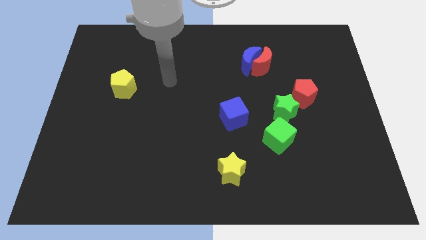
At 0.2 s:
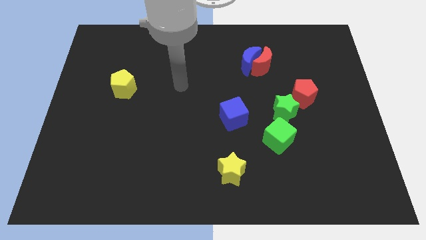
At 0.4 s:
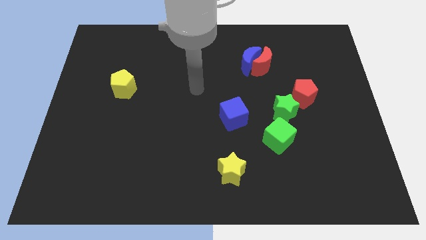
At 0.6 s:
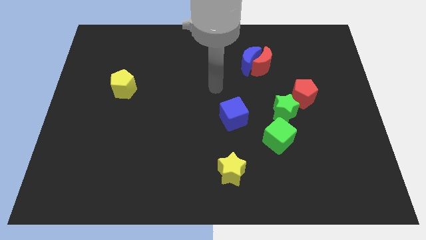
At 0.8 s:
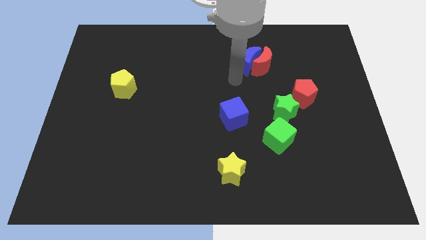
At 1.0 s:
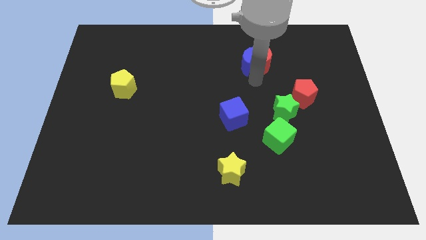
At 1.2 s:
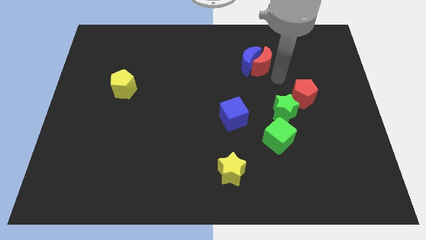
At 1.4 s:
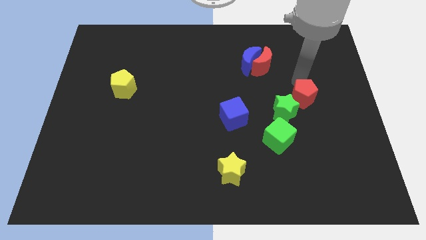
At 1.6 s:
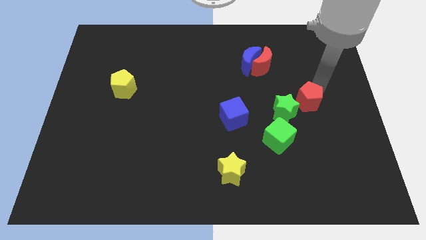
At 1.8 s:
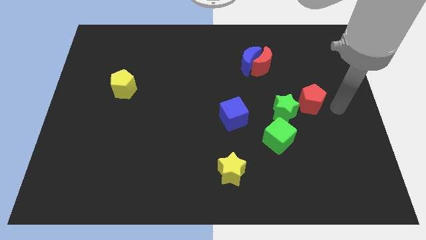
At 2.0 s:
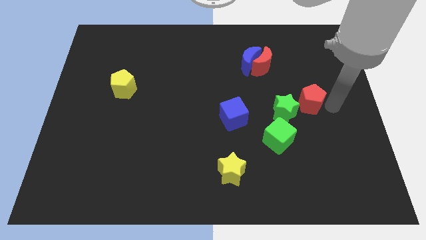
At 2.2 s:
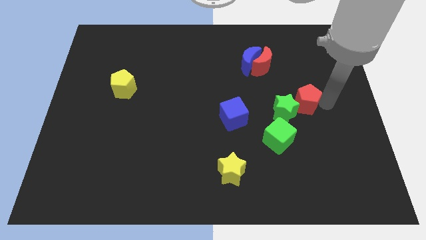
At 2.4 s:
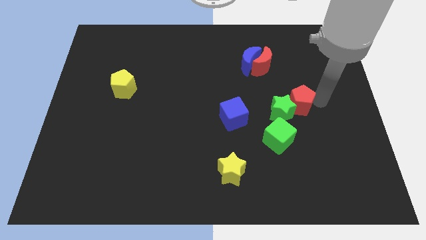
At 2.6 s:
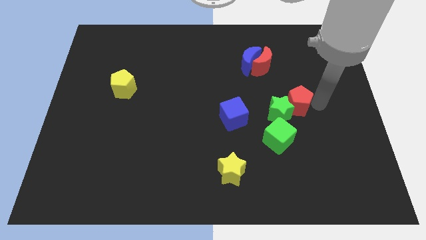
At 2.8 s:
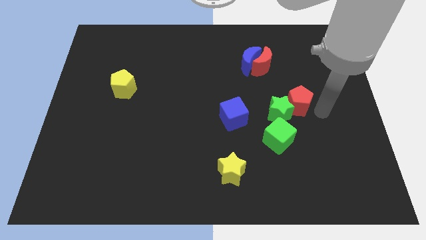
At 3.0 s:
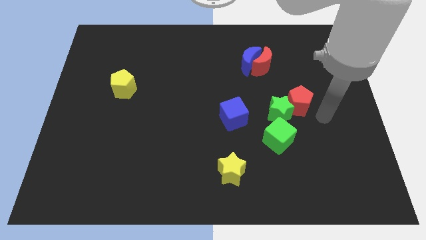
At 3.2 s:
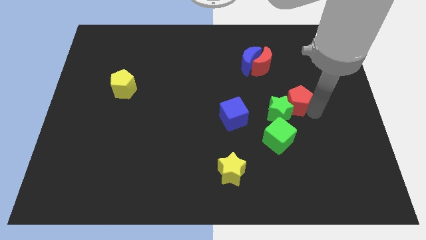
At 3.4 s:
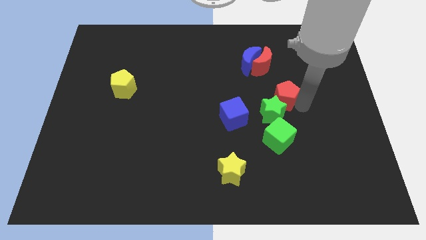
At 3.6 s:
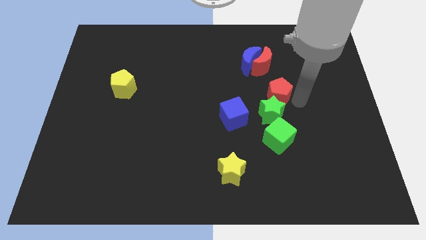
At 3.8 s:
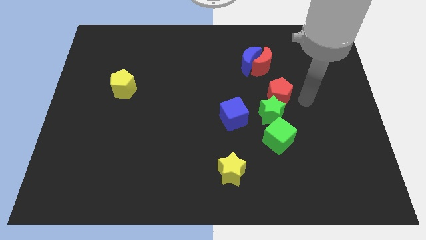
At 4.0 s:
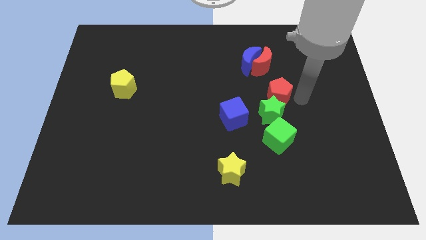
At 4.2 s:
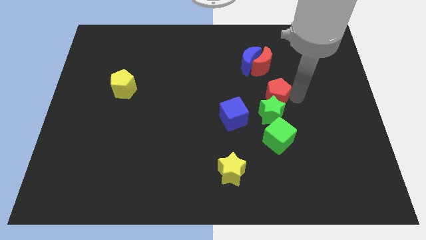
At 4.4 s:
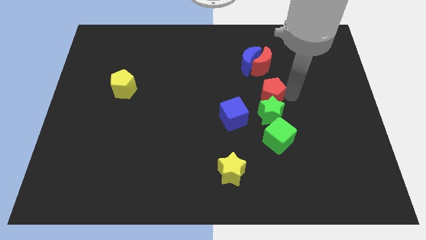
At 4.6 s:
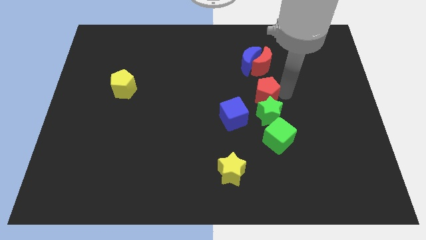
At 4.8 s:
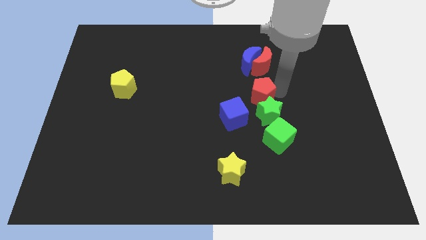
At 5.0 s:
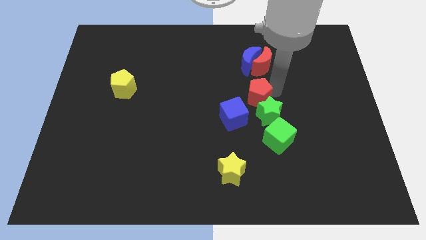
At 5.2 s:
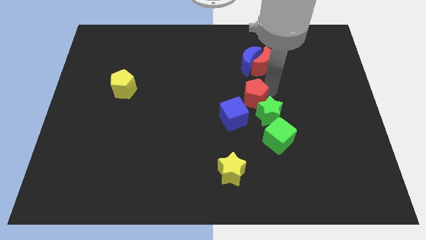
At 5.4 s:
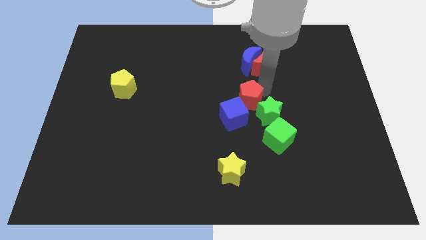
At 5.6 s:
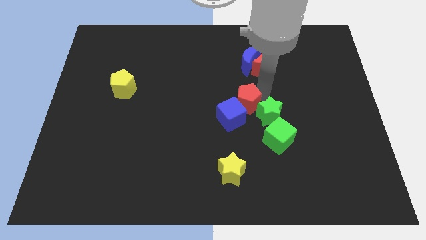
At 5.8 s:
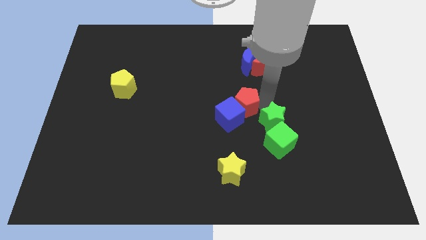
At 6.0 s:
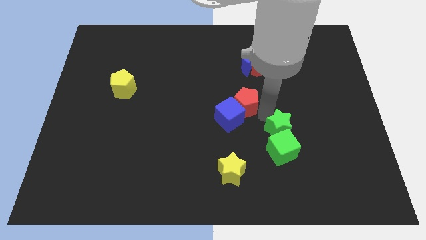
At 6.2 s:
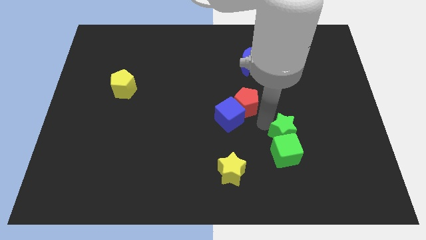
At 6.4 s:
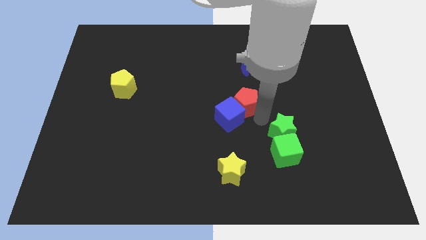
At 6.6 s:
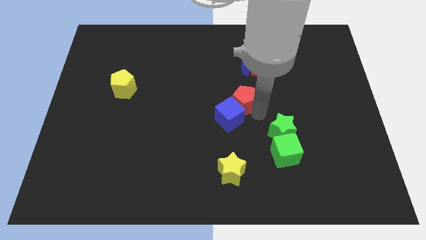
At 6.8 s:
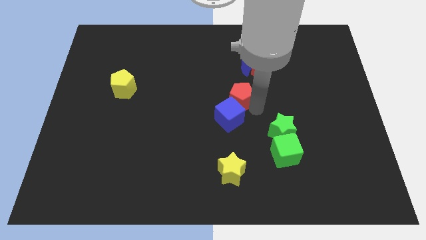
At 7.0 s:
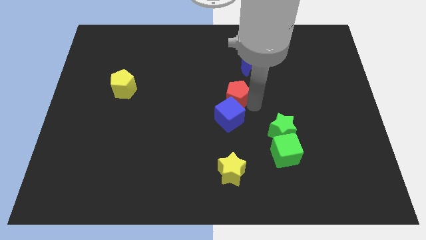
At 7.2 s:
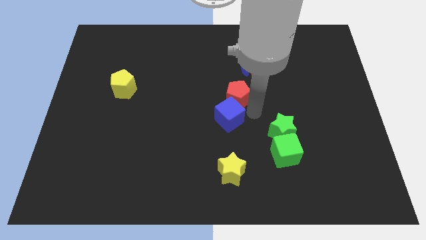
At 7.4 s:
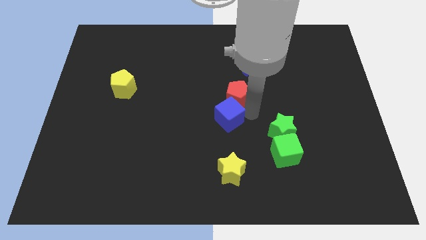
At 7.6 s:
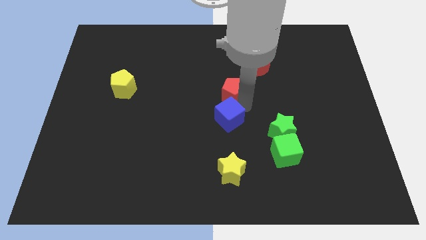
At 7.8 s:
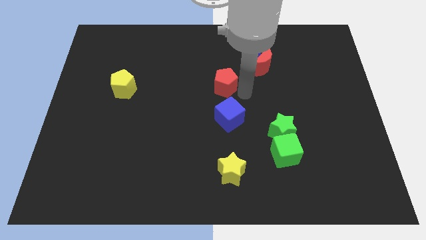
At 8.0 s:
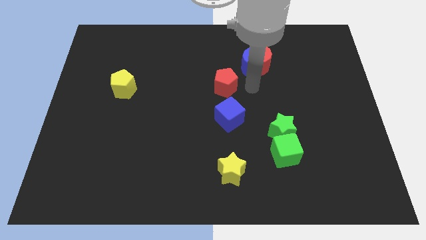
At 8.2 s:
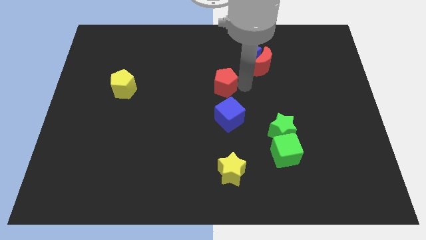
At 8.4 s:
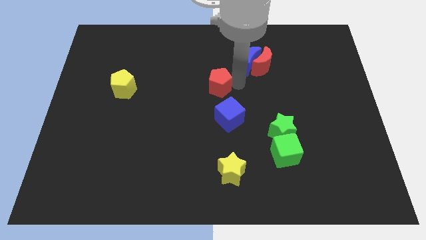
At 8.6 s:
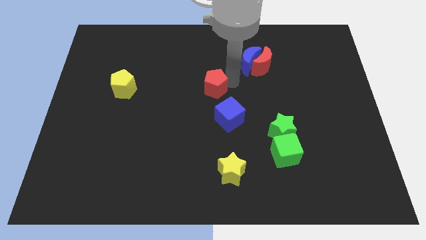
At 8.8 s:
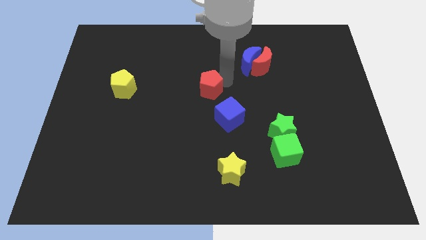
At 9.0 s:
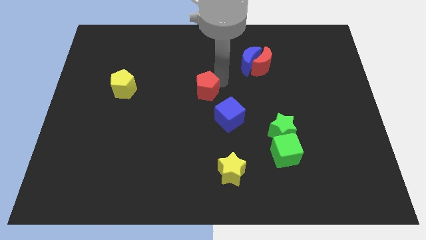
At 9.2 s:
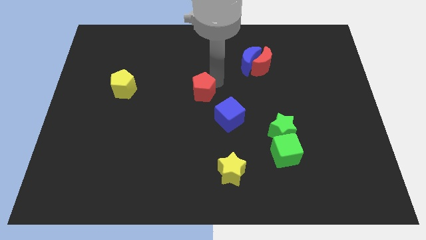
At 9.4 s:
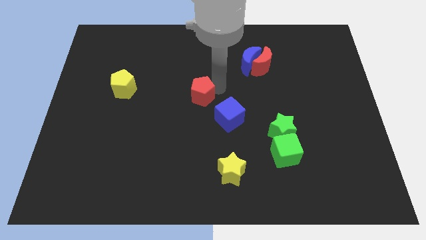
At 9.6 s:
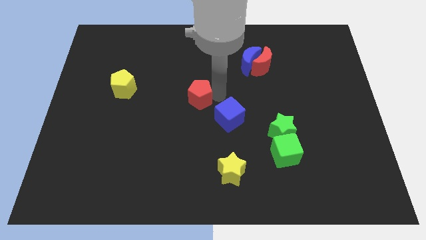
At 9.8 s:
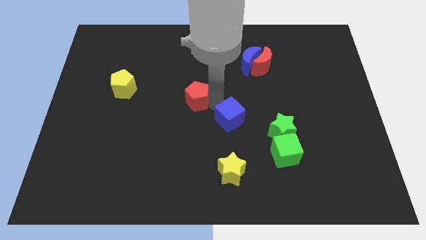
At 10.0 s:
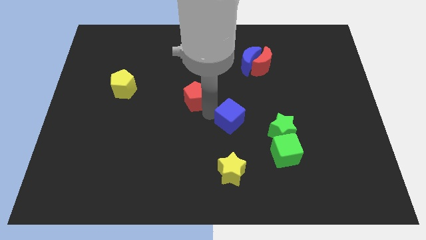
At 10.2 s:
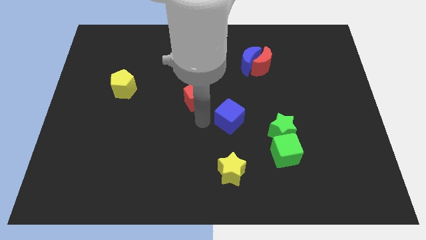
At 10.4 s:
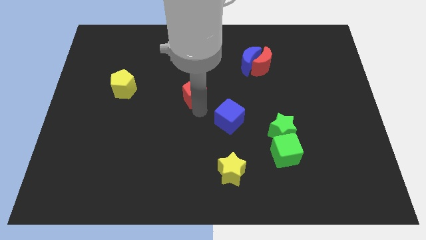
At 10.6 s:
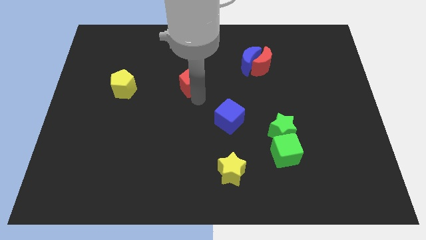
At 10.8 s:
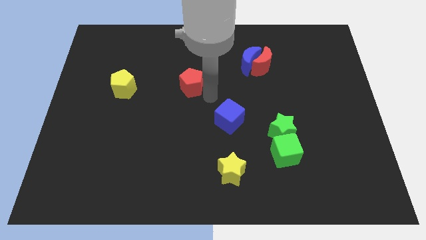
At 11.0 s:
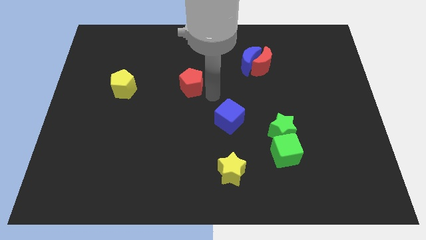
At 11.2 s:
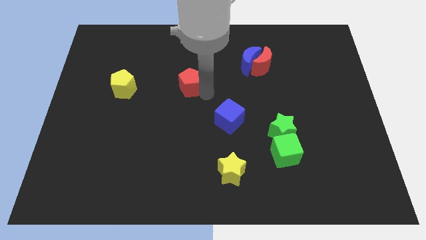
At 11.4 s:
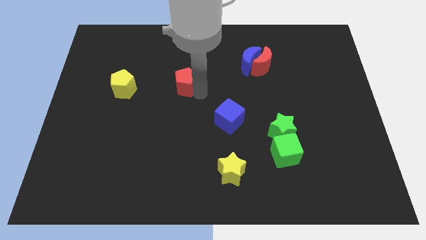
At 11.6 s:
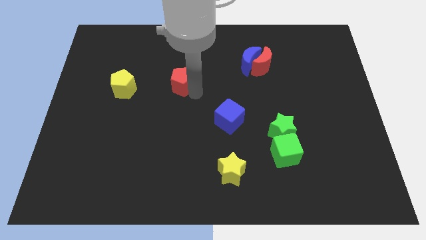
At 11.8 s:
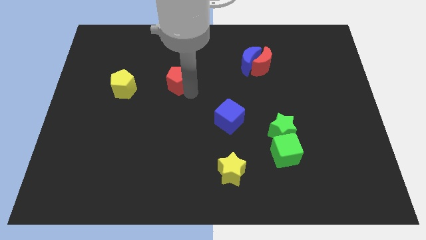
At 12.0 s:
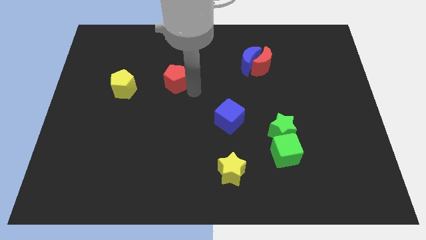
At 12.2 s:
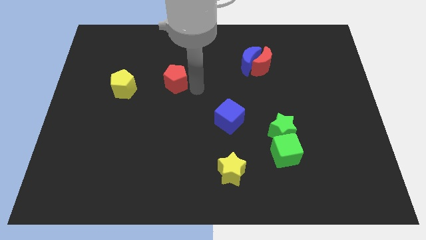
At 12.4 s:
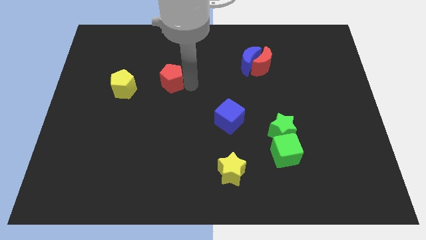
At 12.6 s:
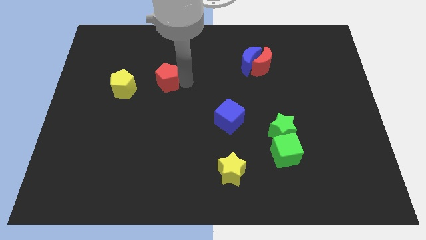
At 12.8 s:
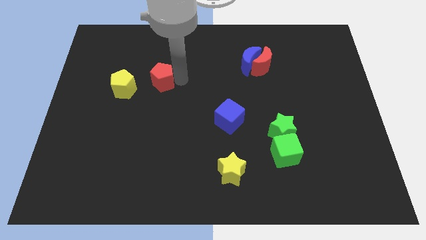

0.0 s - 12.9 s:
push the red pentagon diagonally up and to the right of the yellow pentagon
